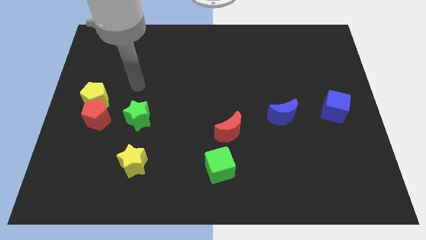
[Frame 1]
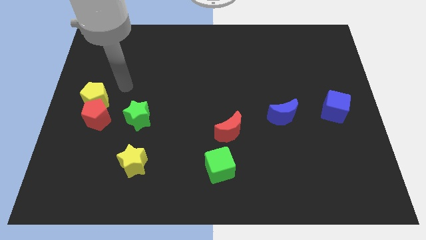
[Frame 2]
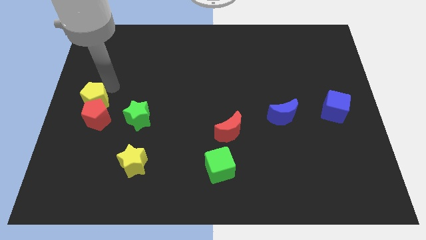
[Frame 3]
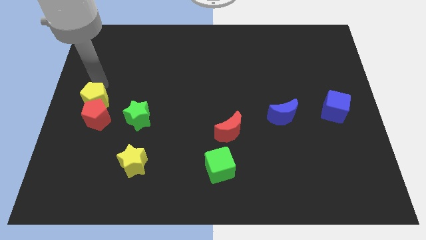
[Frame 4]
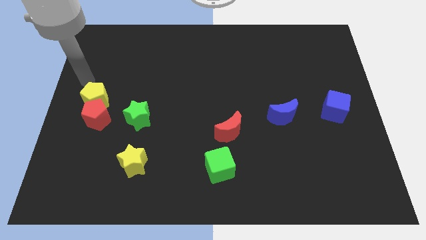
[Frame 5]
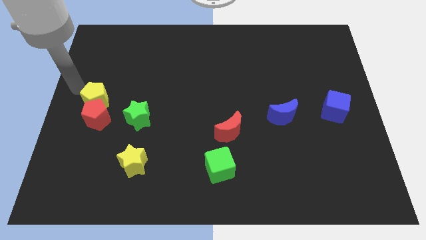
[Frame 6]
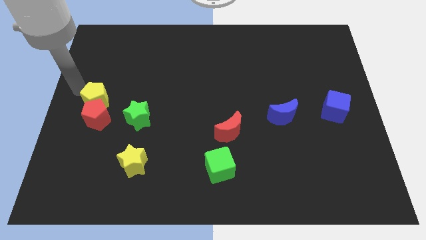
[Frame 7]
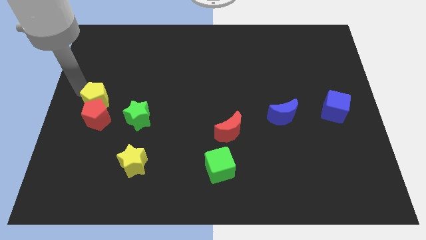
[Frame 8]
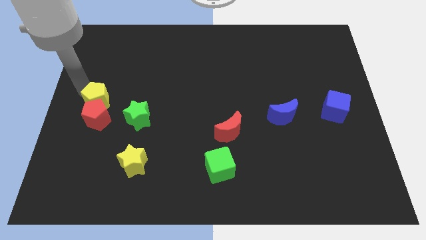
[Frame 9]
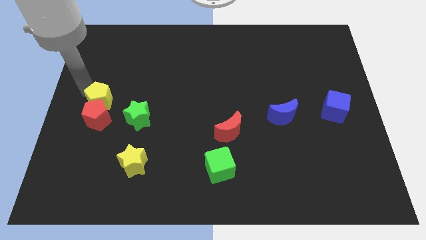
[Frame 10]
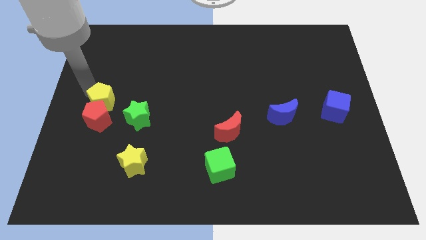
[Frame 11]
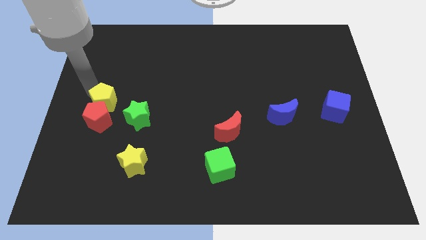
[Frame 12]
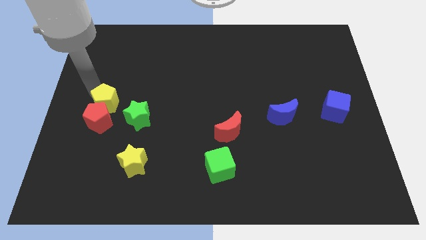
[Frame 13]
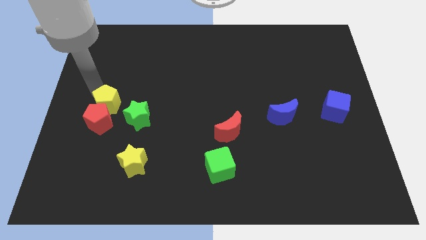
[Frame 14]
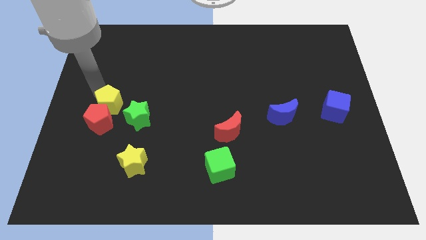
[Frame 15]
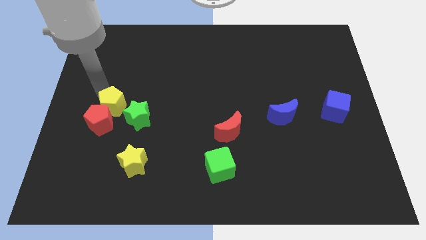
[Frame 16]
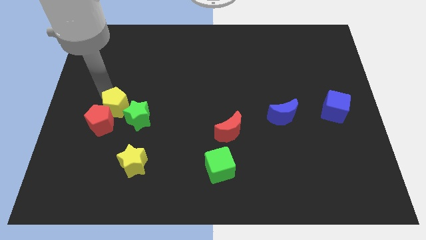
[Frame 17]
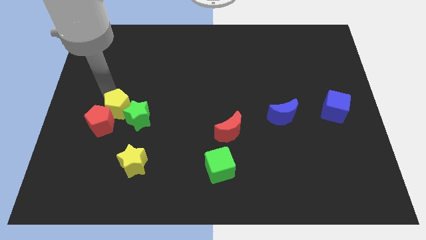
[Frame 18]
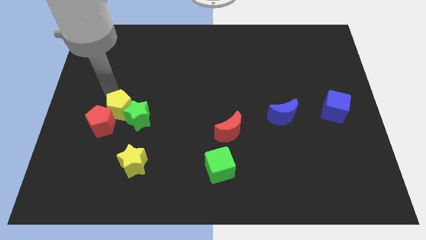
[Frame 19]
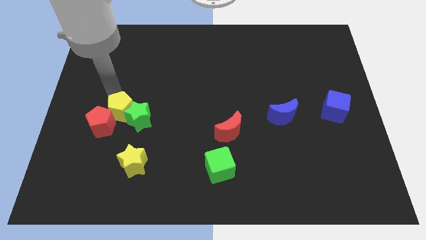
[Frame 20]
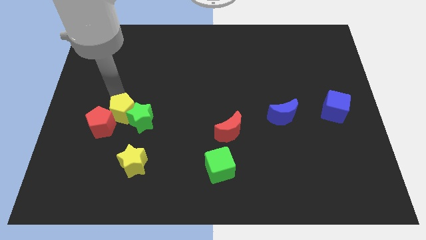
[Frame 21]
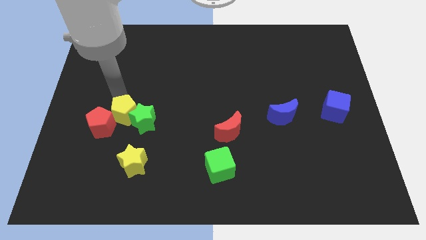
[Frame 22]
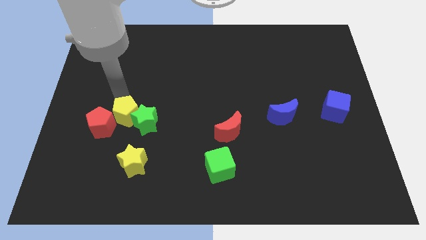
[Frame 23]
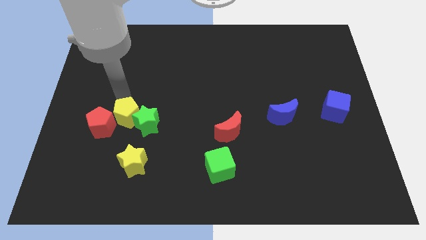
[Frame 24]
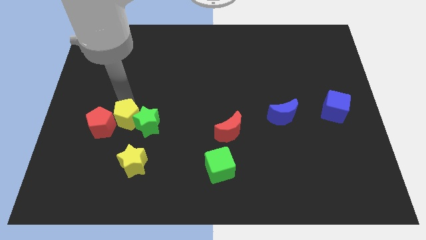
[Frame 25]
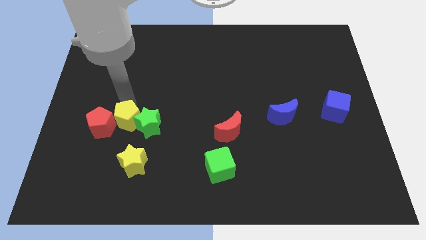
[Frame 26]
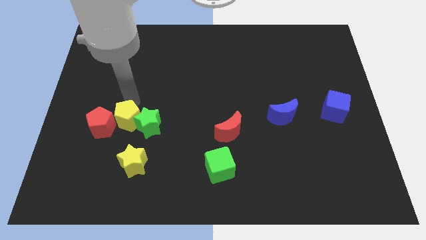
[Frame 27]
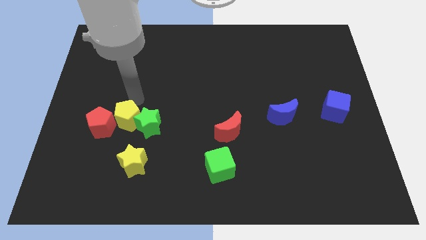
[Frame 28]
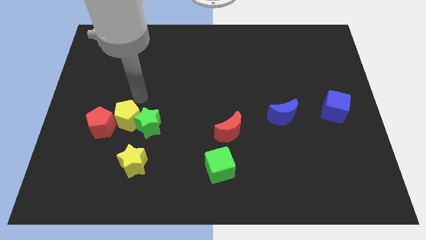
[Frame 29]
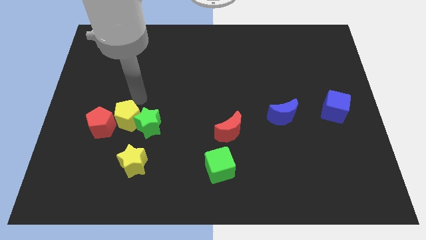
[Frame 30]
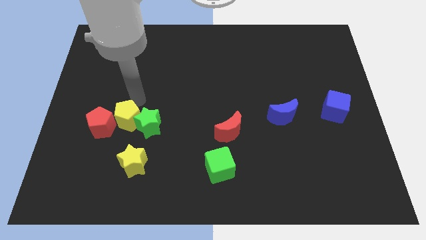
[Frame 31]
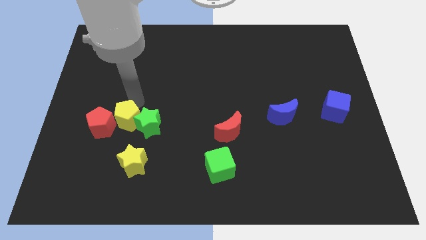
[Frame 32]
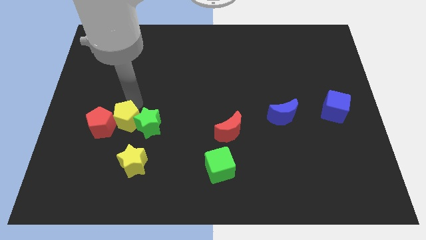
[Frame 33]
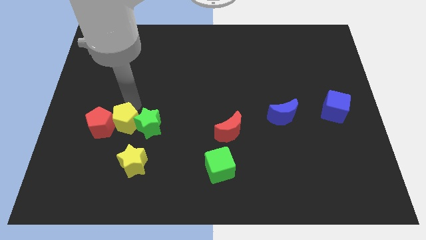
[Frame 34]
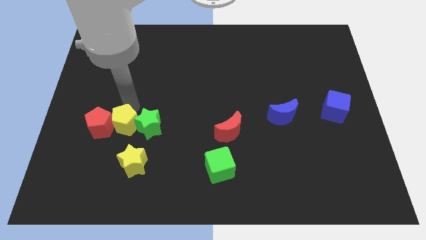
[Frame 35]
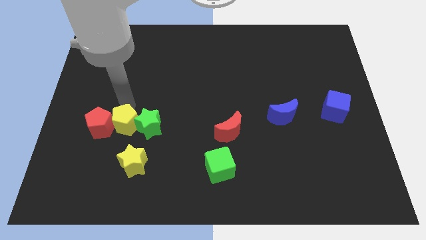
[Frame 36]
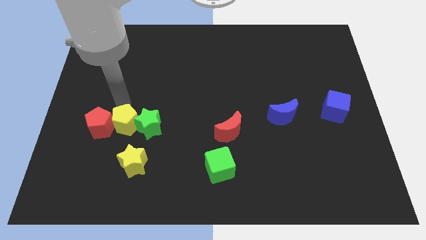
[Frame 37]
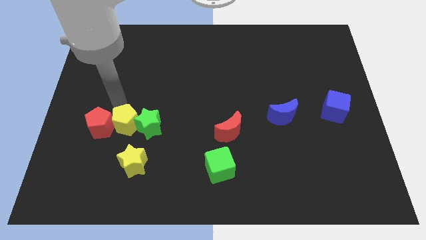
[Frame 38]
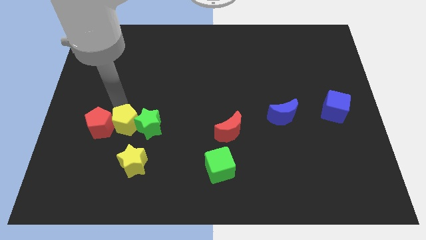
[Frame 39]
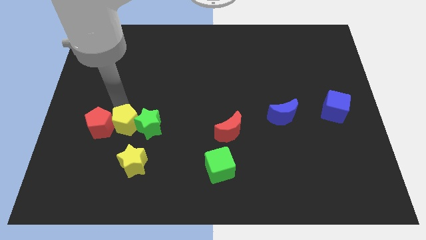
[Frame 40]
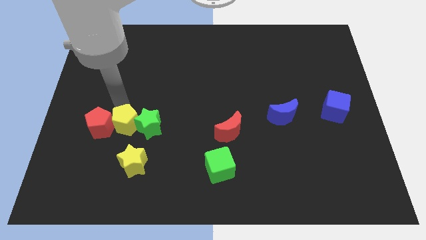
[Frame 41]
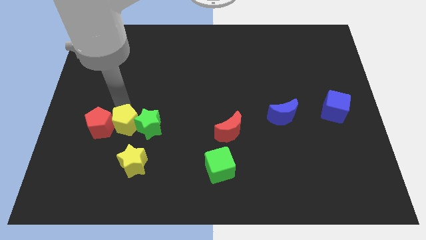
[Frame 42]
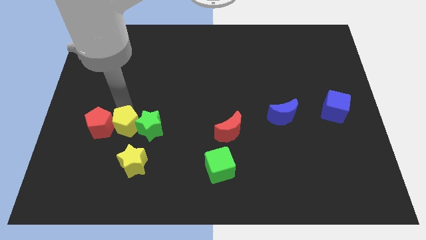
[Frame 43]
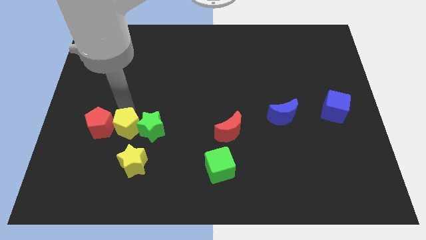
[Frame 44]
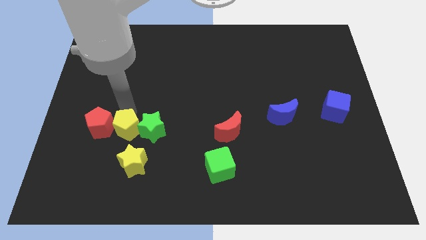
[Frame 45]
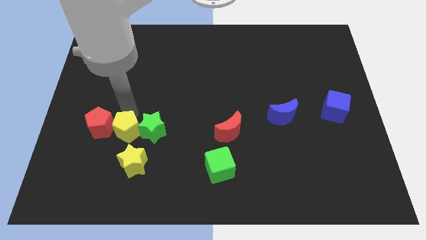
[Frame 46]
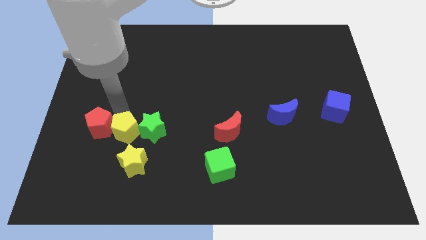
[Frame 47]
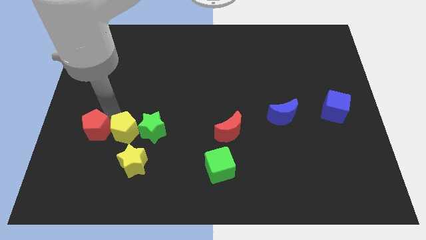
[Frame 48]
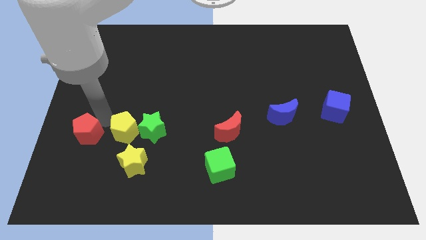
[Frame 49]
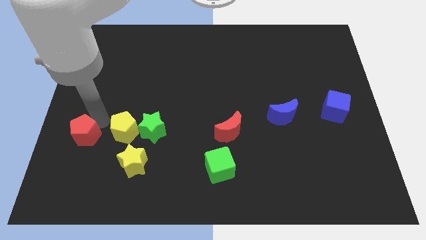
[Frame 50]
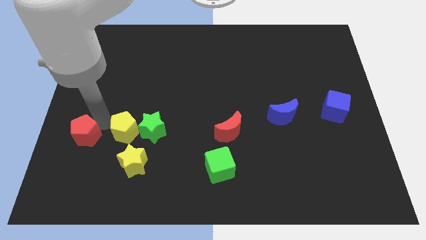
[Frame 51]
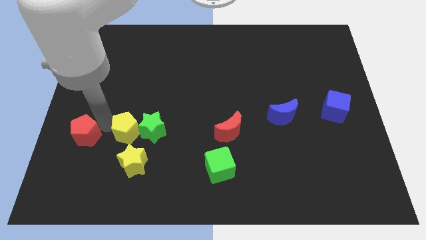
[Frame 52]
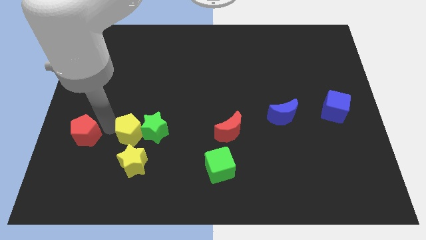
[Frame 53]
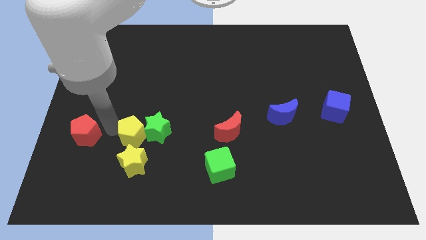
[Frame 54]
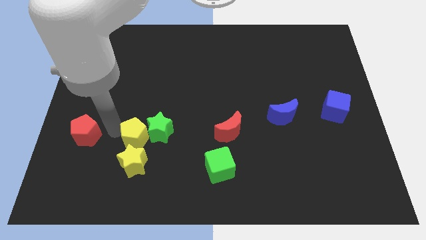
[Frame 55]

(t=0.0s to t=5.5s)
push the yellow pentagon to the top right of the yellow star

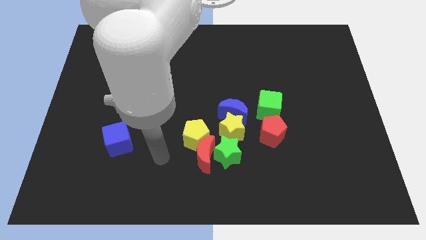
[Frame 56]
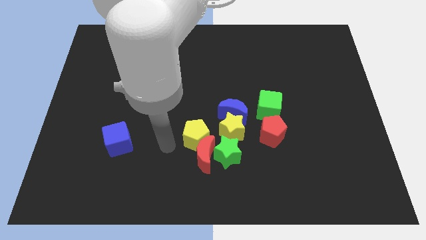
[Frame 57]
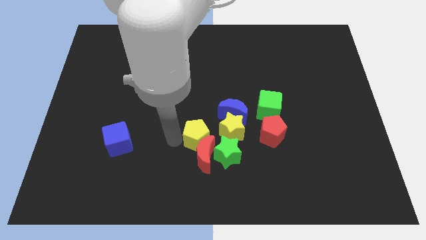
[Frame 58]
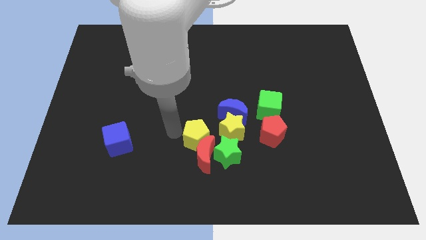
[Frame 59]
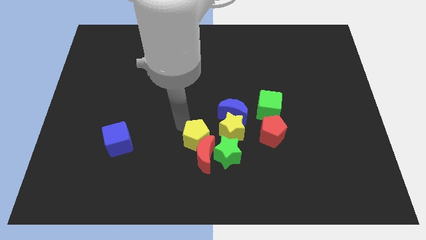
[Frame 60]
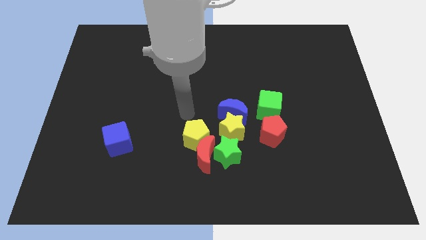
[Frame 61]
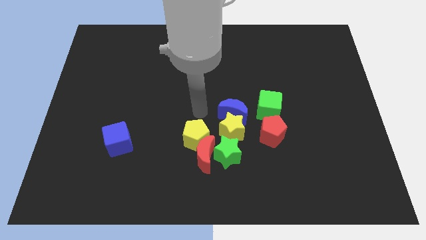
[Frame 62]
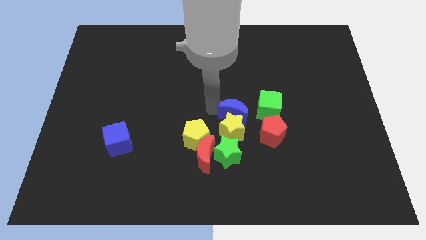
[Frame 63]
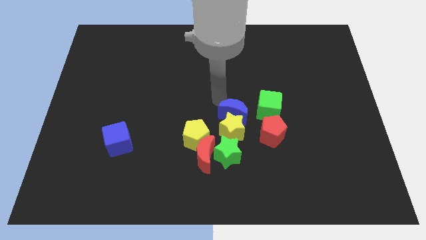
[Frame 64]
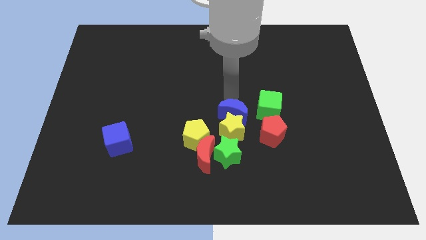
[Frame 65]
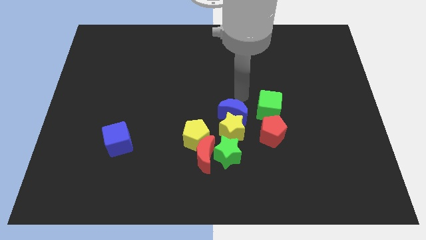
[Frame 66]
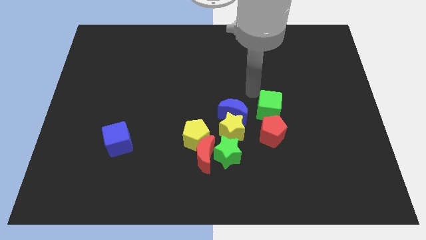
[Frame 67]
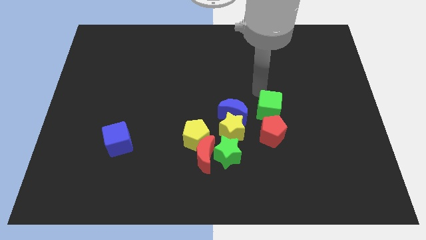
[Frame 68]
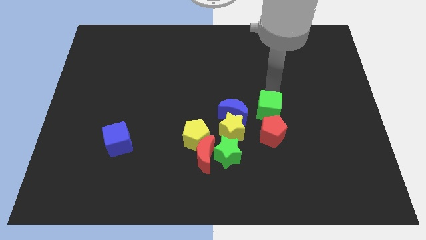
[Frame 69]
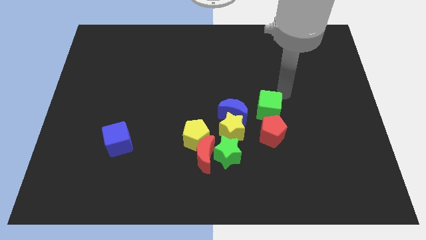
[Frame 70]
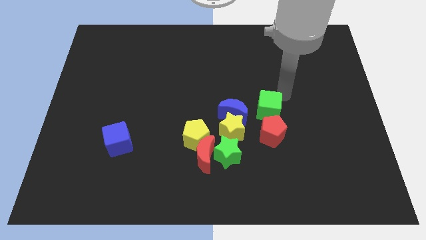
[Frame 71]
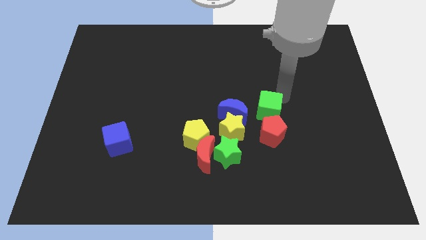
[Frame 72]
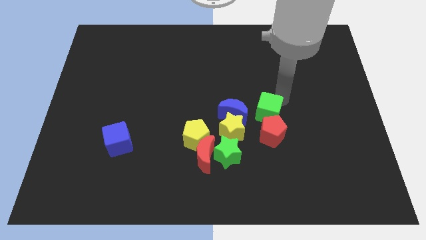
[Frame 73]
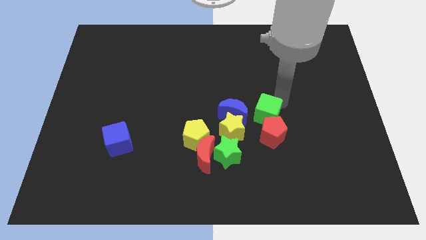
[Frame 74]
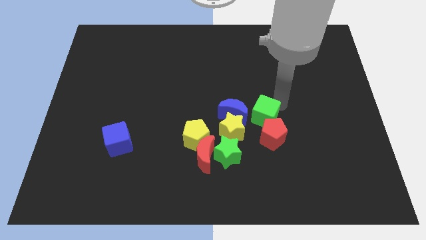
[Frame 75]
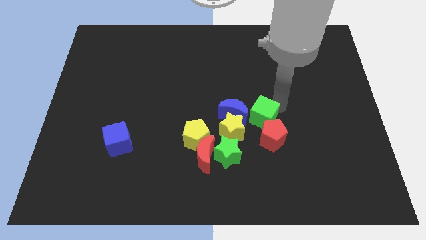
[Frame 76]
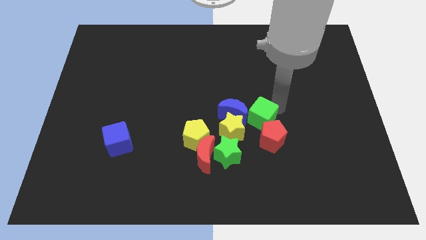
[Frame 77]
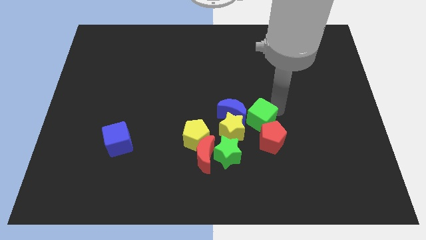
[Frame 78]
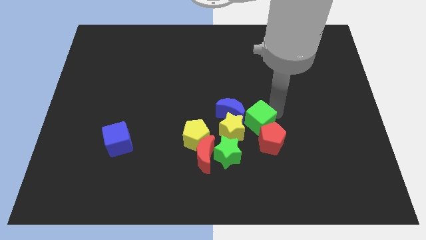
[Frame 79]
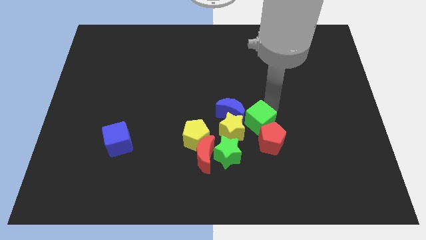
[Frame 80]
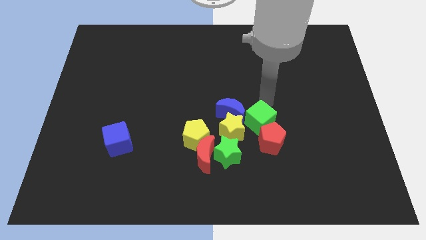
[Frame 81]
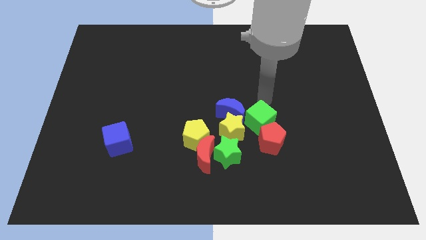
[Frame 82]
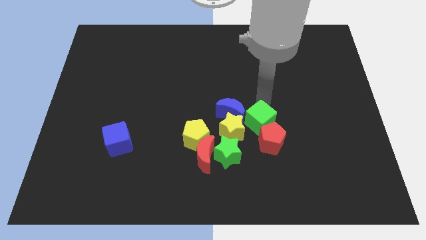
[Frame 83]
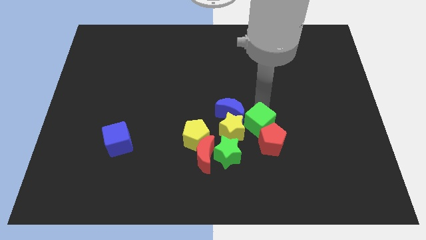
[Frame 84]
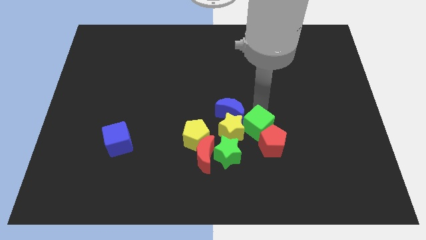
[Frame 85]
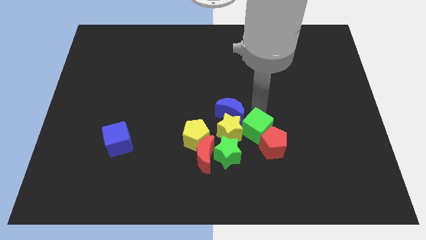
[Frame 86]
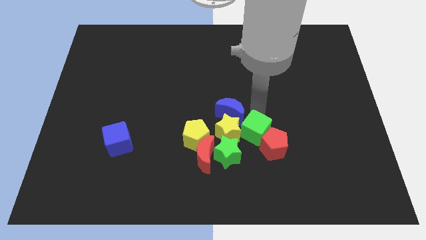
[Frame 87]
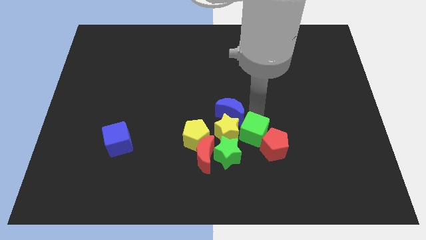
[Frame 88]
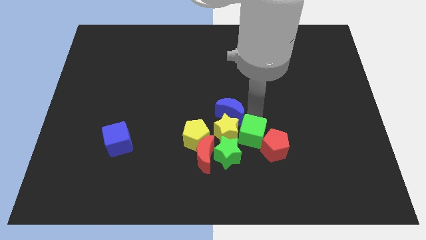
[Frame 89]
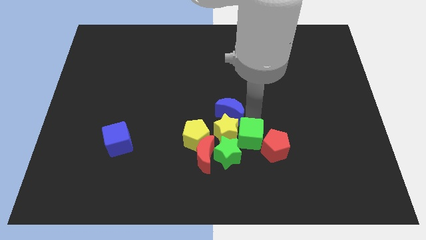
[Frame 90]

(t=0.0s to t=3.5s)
move the green cube to the right side of the red moon
